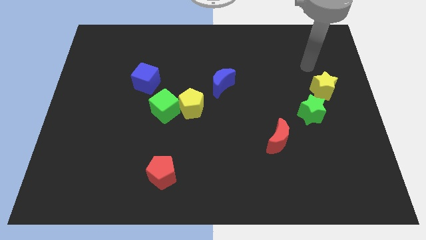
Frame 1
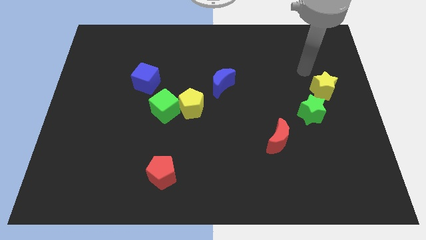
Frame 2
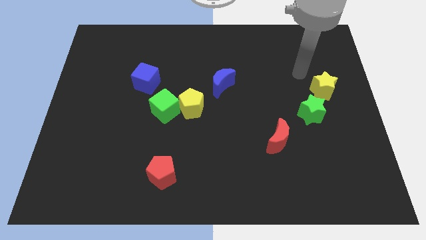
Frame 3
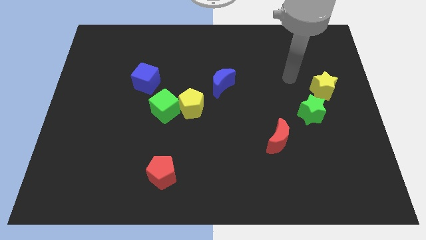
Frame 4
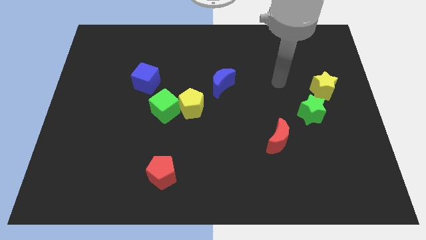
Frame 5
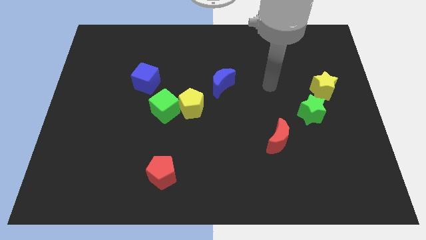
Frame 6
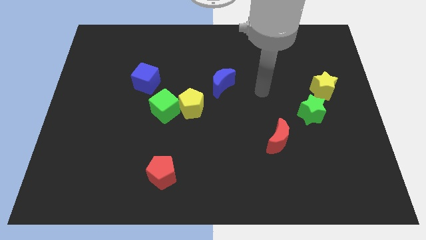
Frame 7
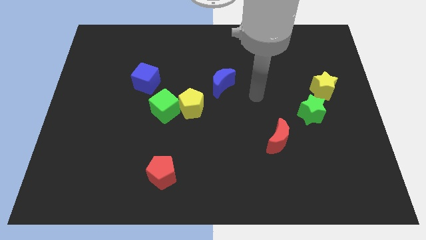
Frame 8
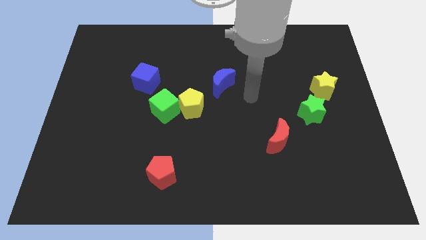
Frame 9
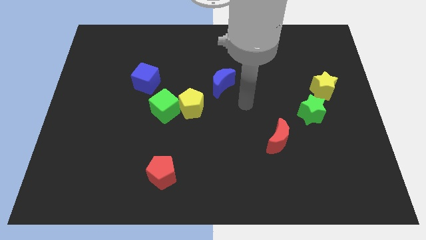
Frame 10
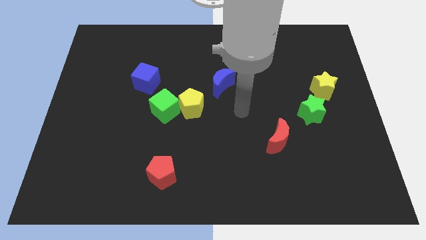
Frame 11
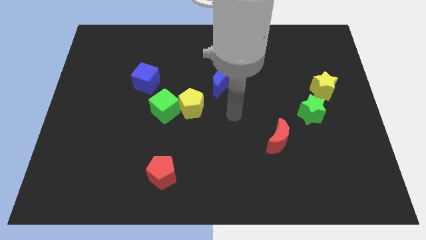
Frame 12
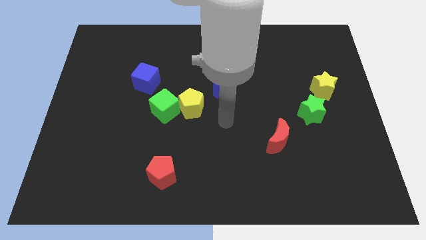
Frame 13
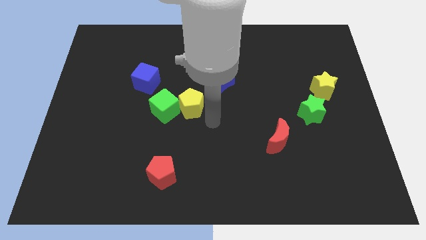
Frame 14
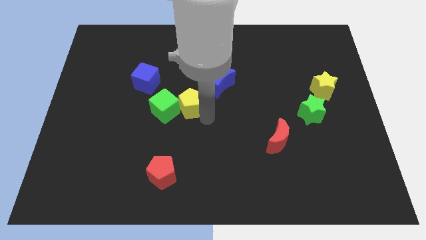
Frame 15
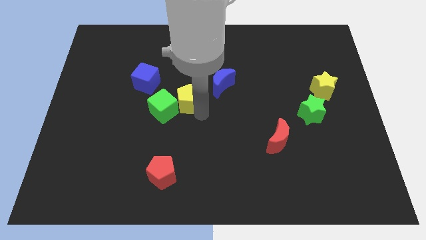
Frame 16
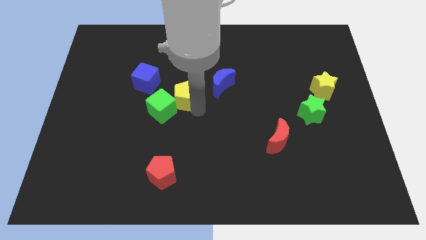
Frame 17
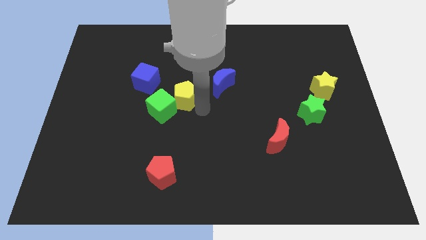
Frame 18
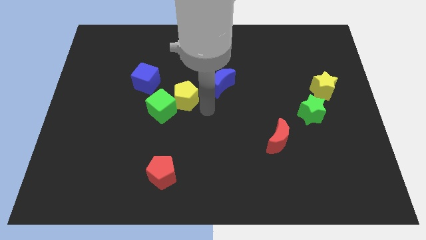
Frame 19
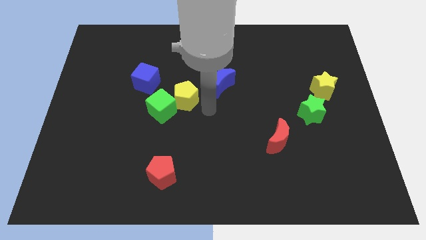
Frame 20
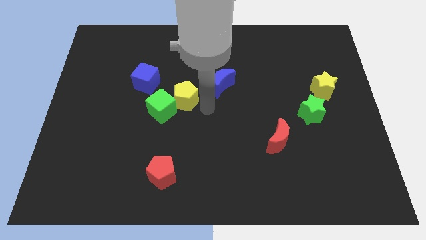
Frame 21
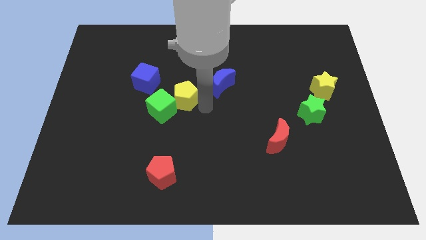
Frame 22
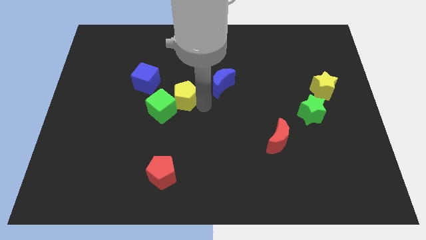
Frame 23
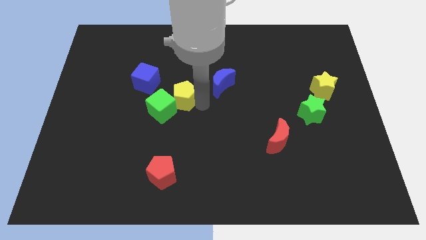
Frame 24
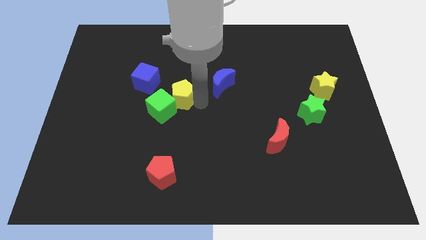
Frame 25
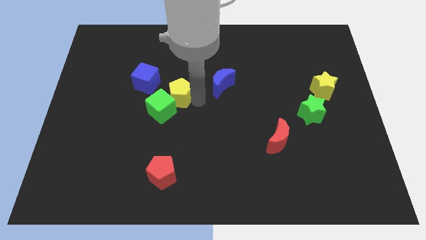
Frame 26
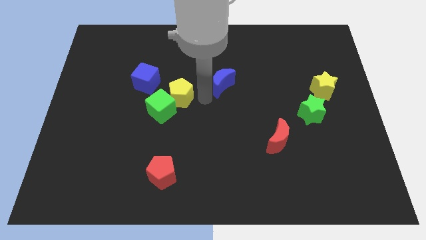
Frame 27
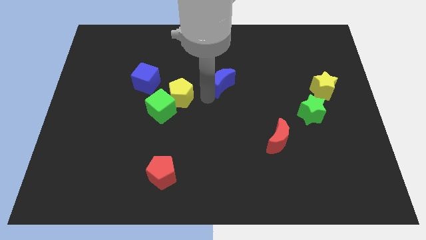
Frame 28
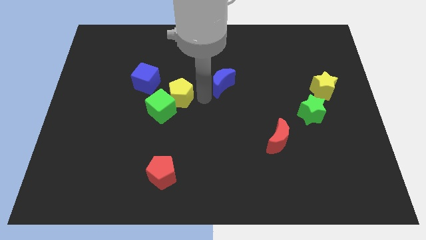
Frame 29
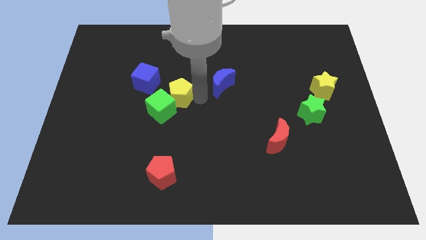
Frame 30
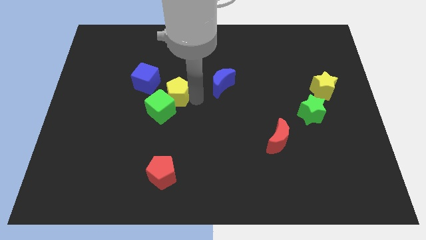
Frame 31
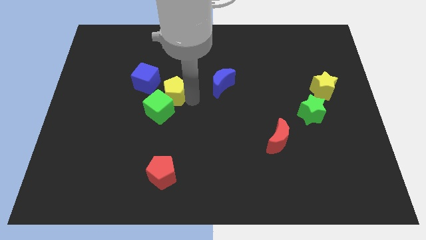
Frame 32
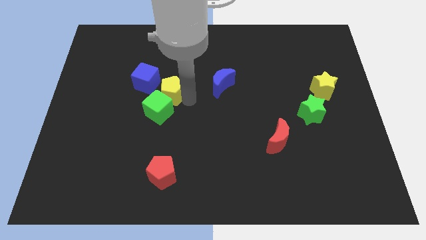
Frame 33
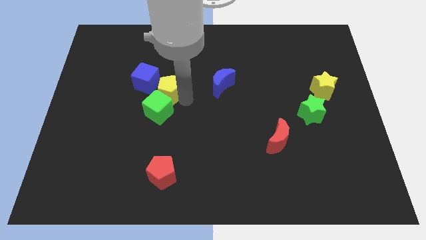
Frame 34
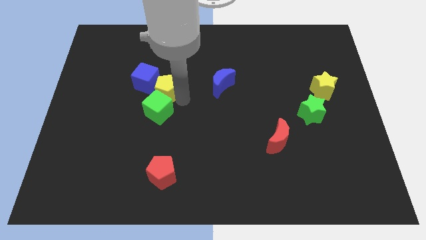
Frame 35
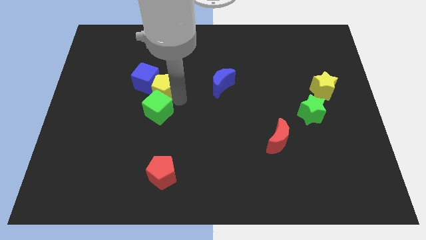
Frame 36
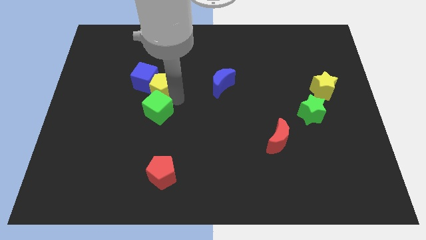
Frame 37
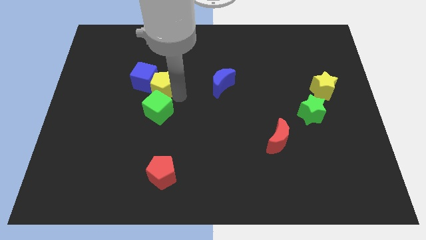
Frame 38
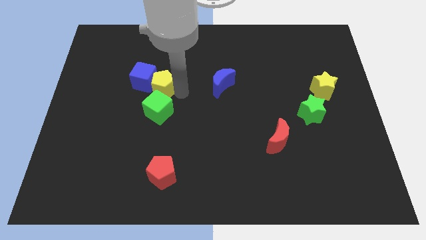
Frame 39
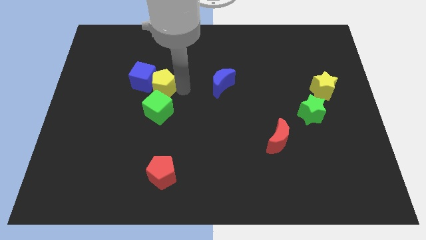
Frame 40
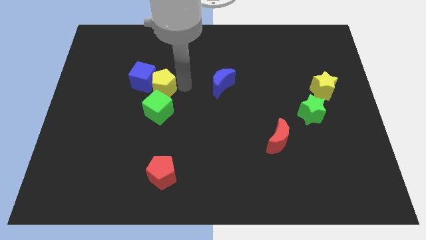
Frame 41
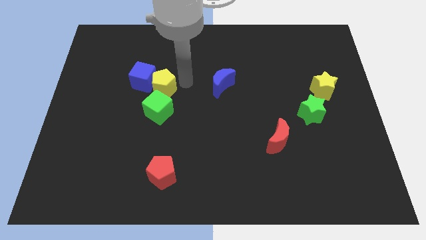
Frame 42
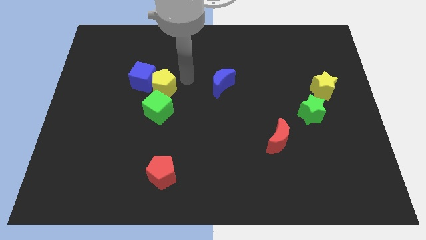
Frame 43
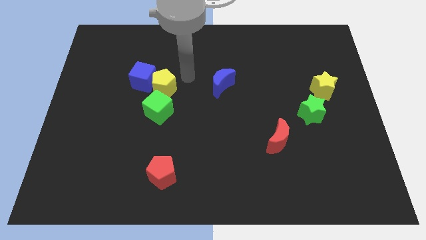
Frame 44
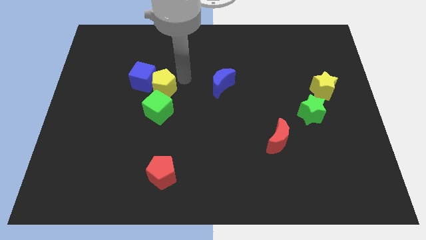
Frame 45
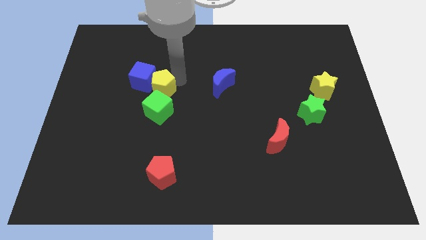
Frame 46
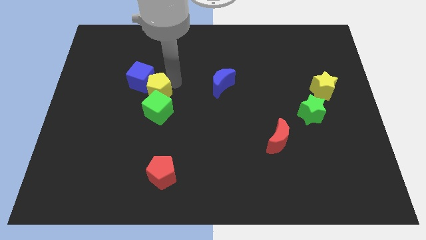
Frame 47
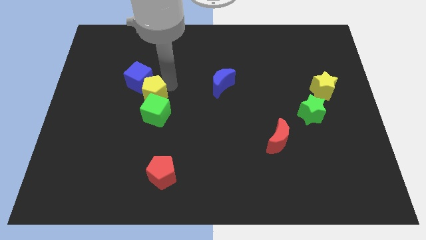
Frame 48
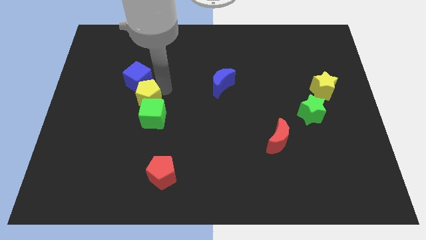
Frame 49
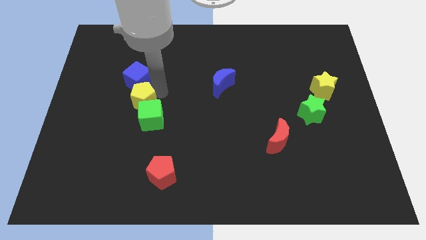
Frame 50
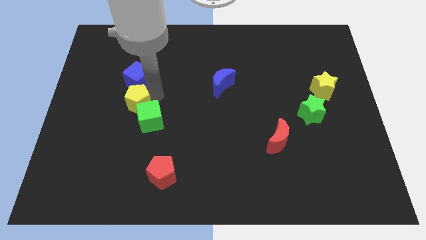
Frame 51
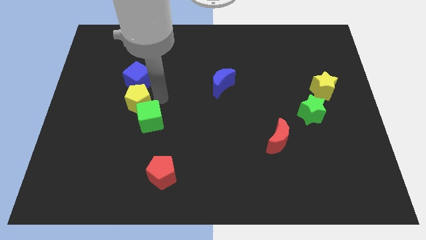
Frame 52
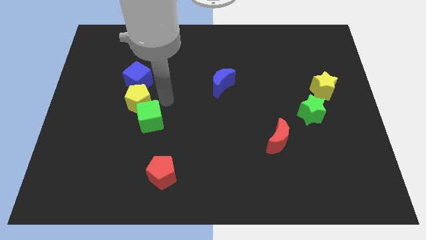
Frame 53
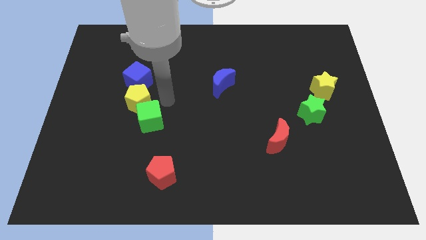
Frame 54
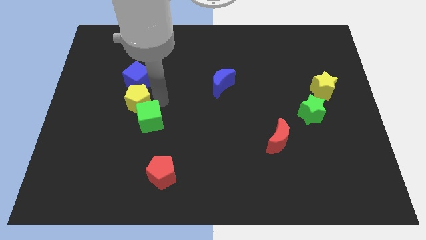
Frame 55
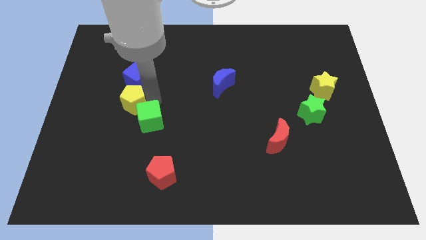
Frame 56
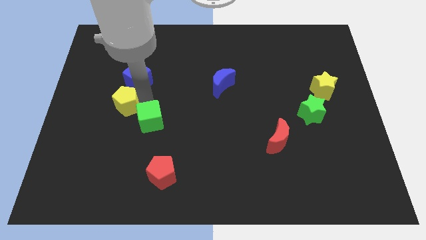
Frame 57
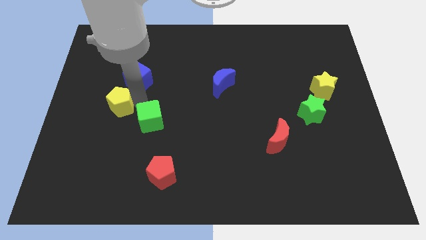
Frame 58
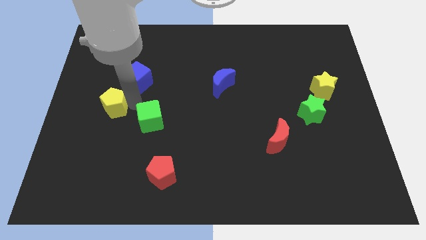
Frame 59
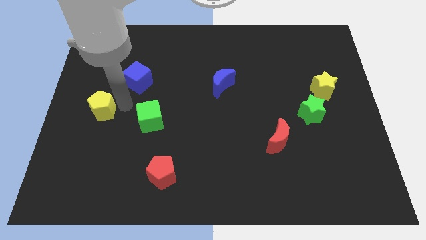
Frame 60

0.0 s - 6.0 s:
slide the yellow pentagon to the left side
